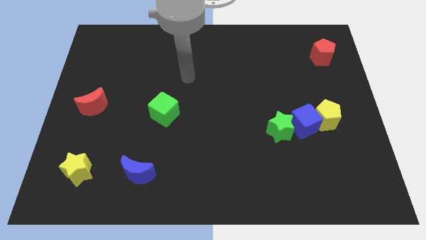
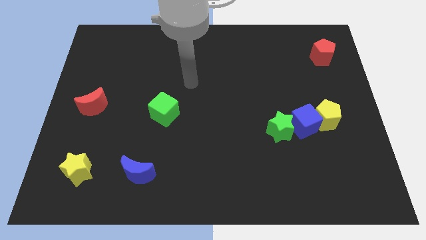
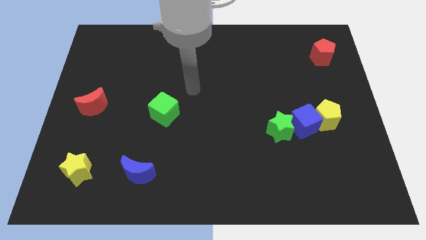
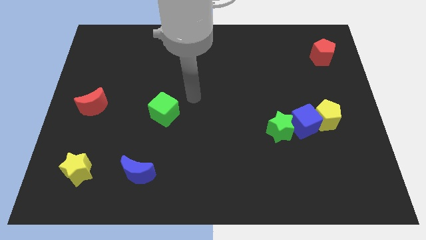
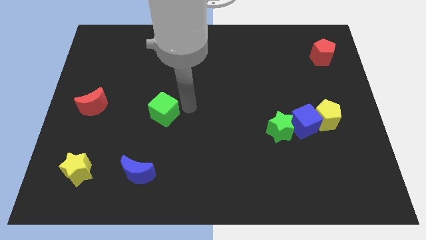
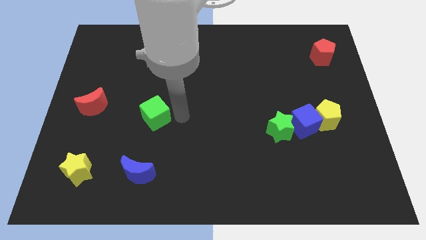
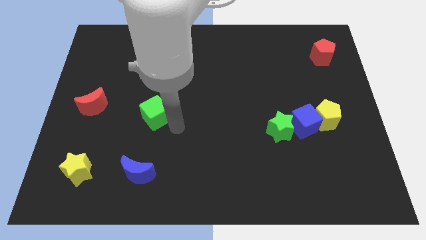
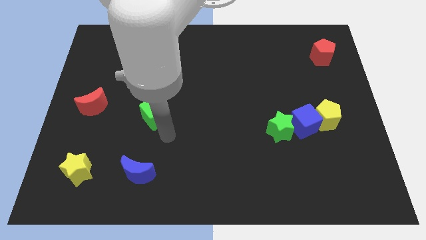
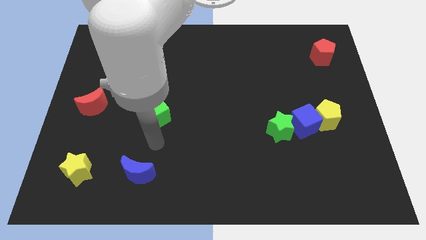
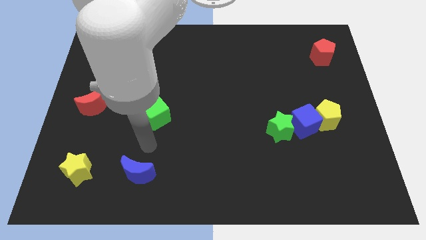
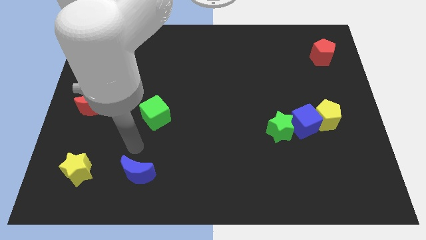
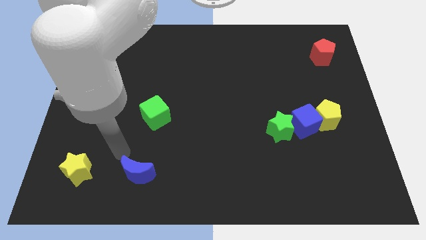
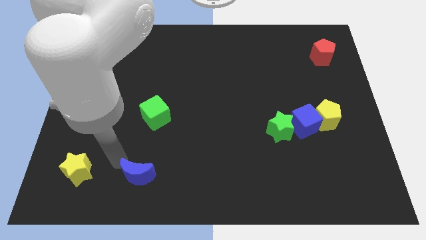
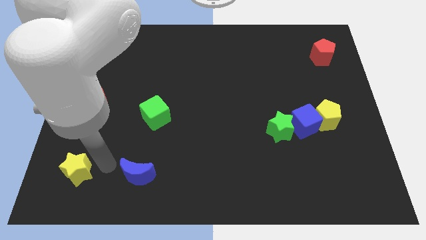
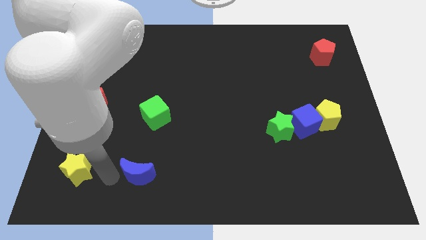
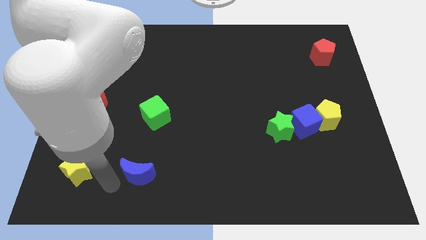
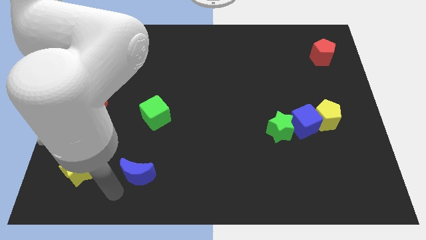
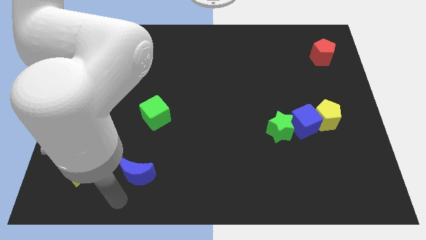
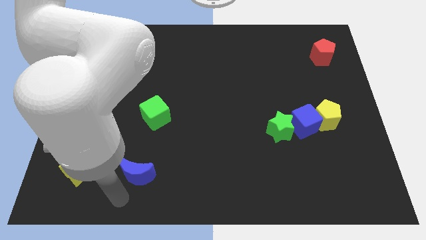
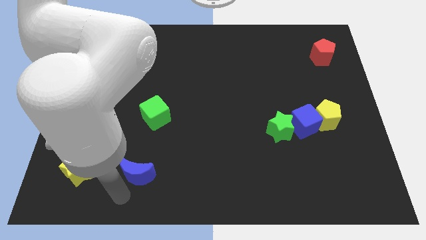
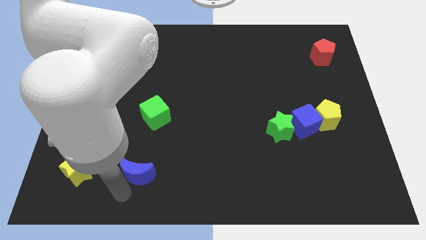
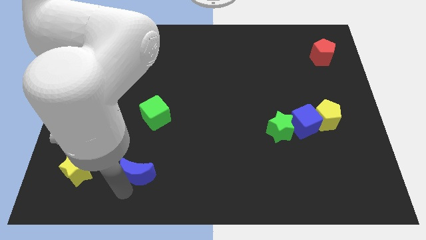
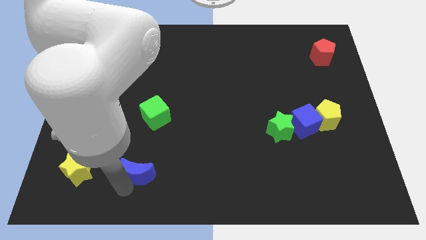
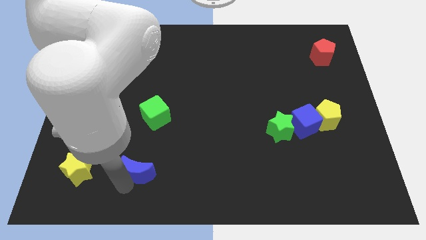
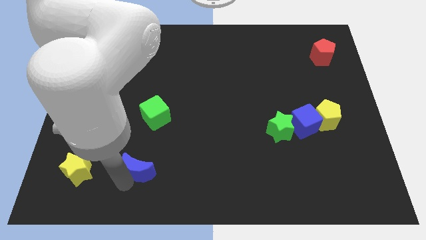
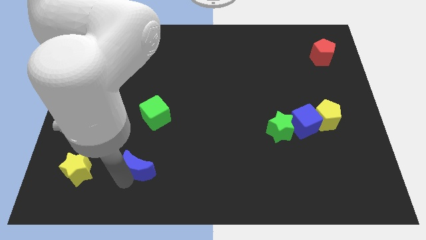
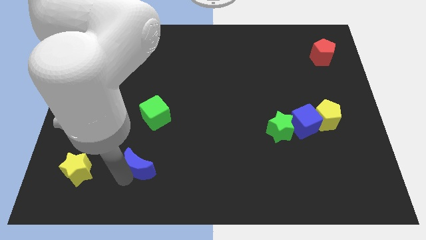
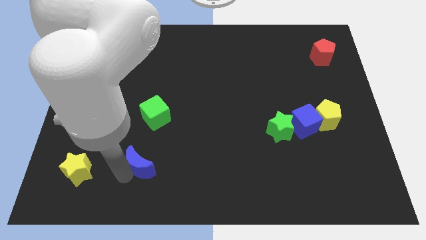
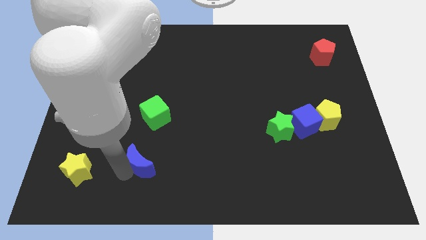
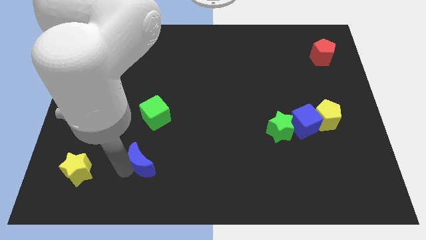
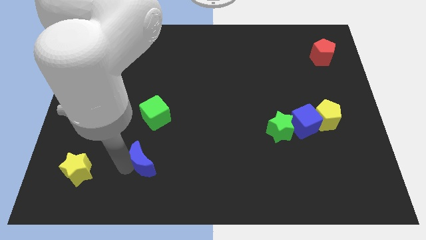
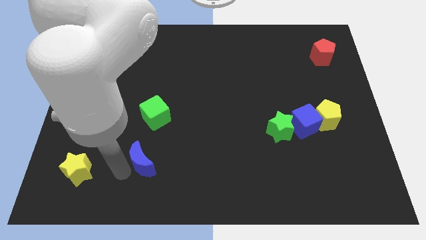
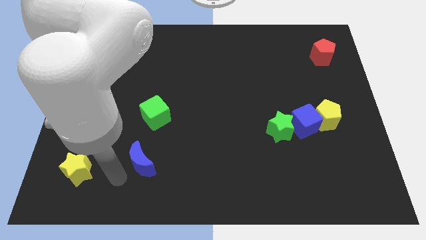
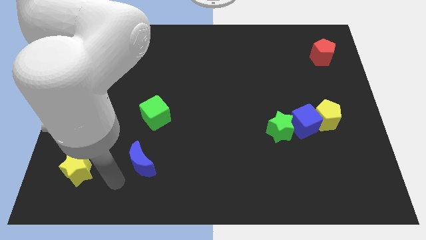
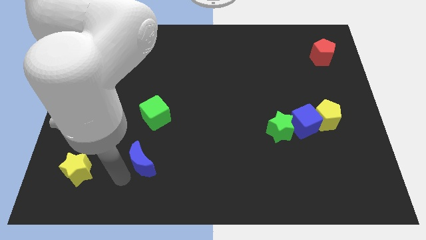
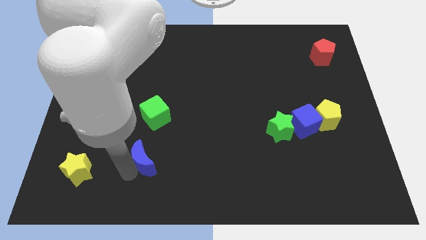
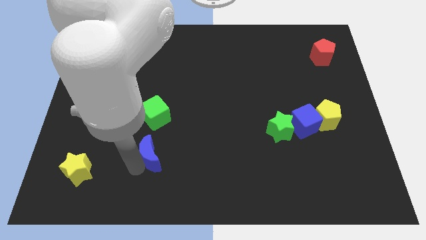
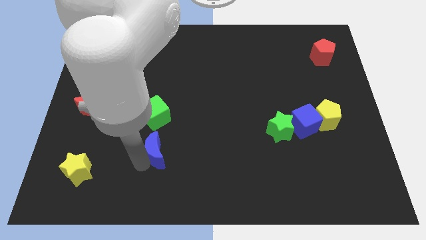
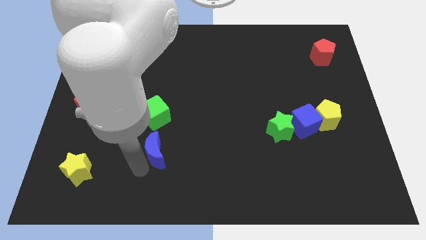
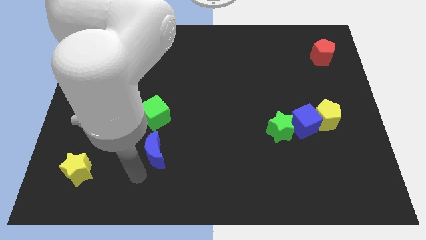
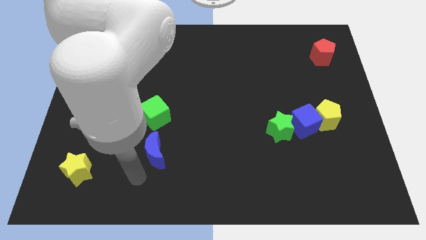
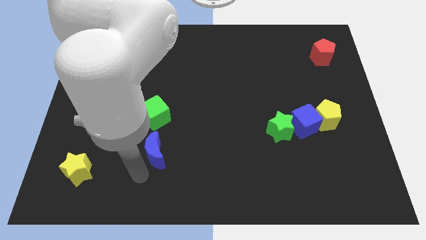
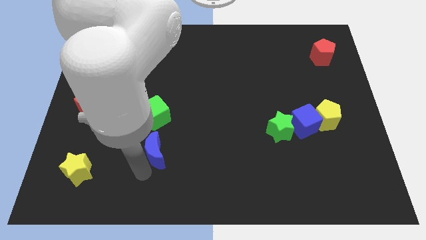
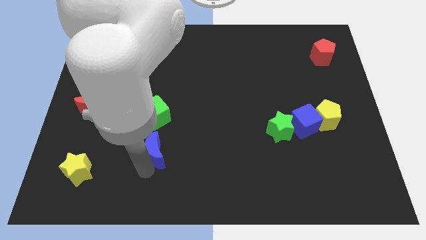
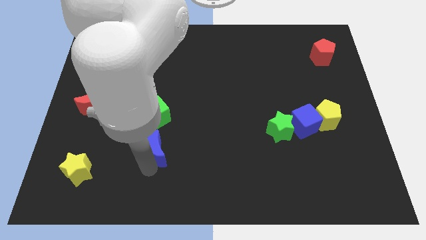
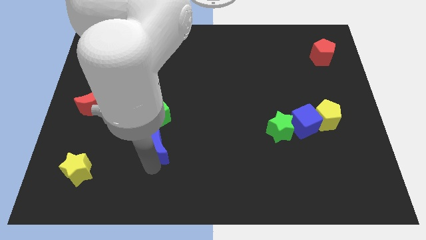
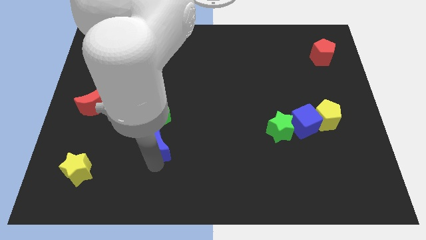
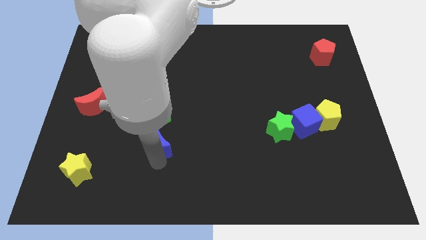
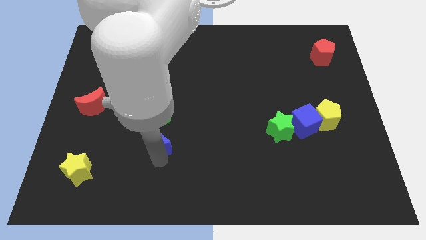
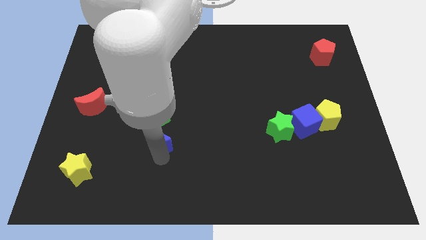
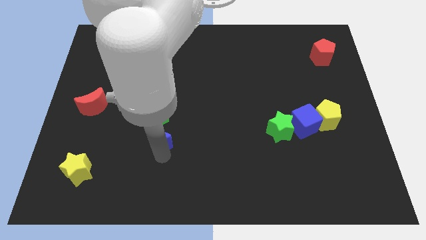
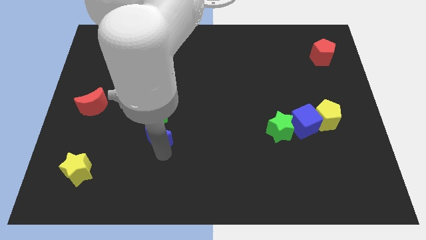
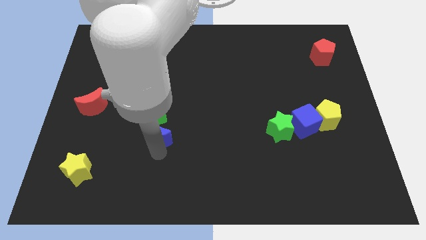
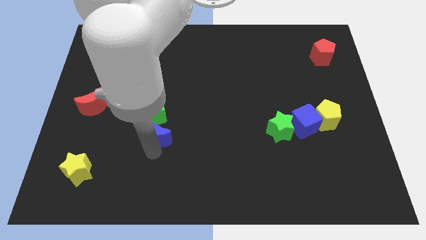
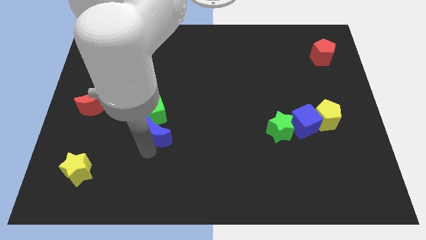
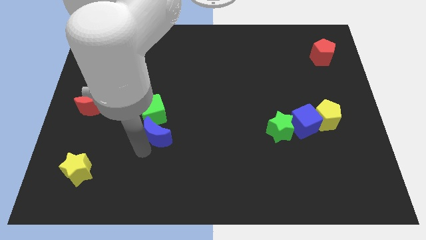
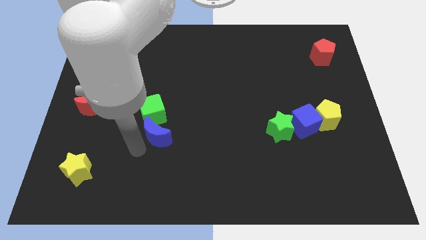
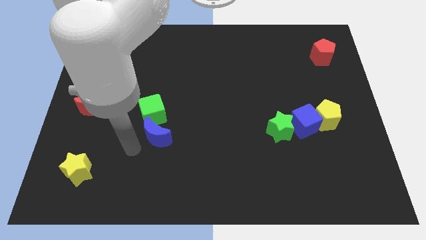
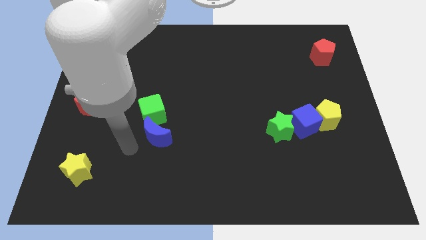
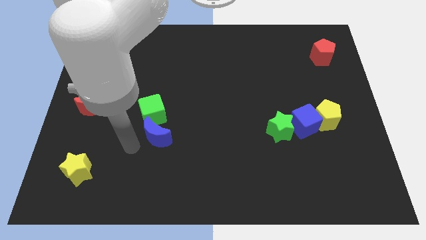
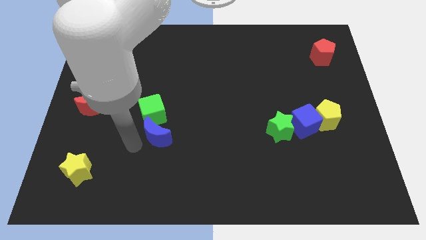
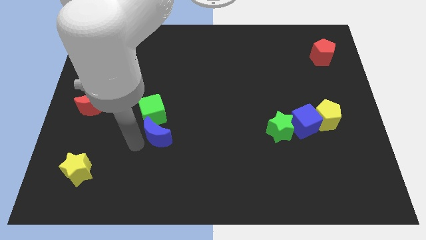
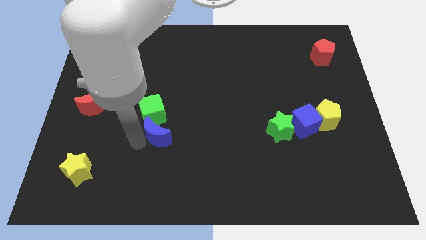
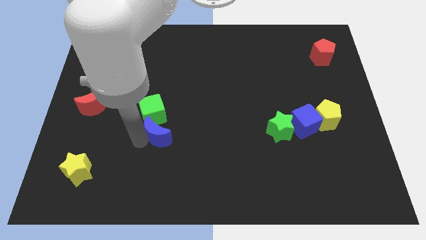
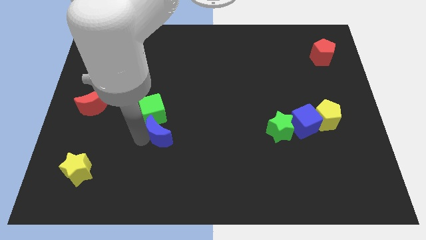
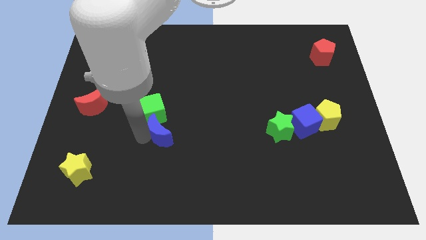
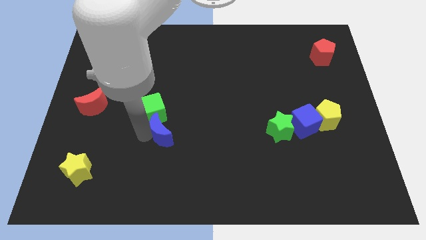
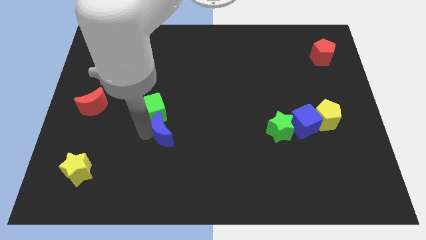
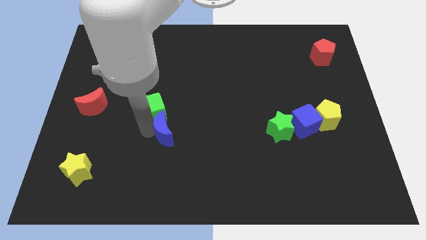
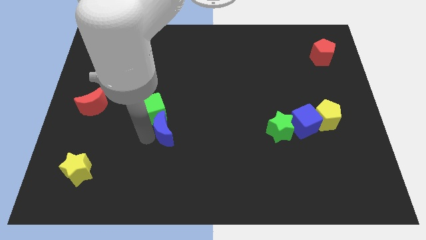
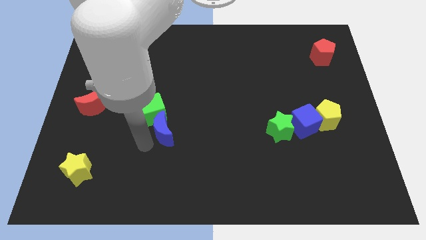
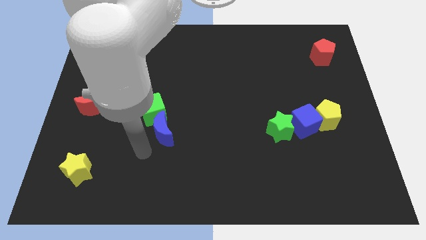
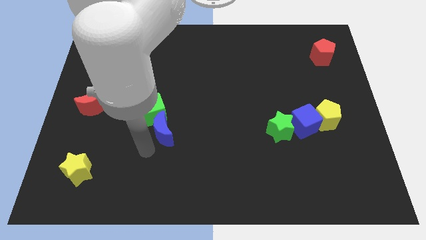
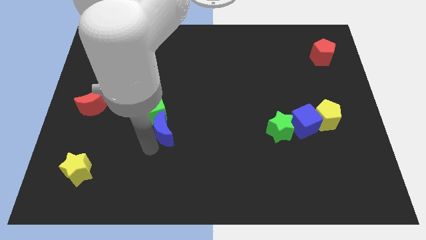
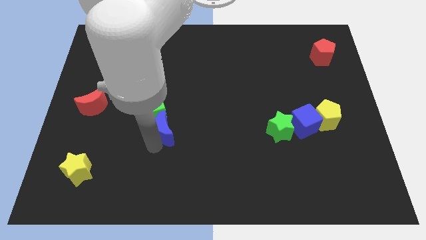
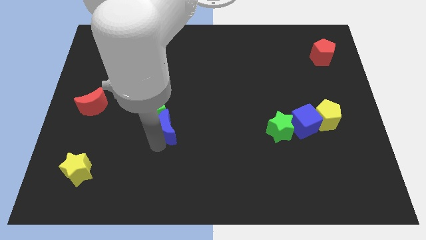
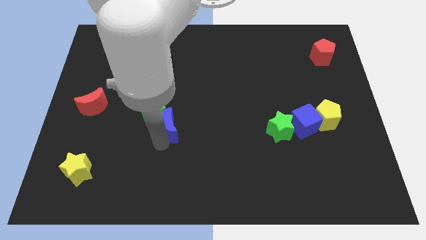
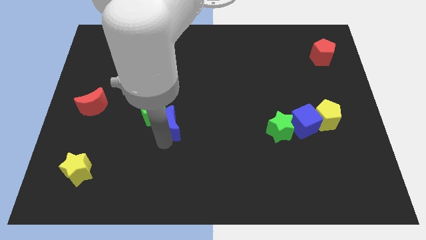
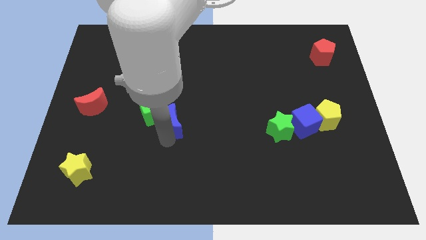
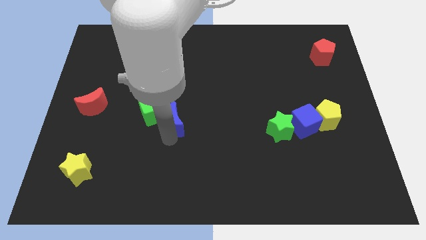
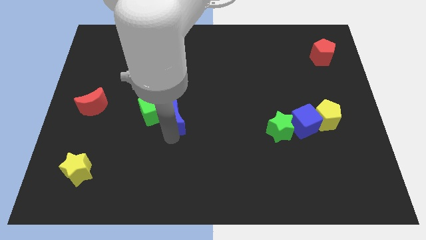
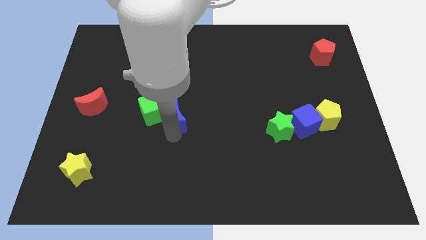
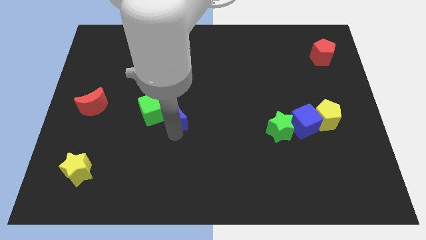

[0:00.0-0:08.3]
push the blue moon to the top right of the green cube
